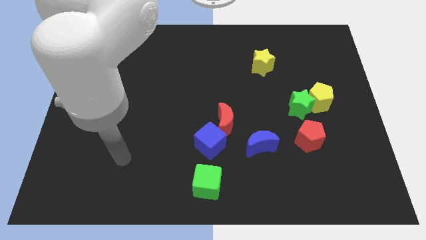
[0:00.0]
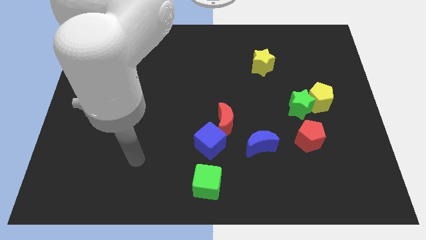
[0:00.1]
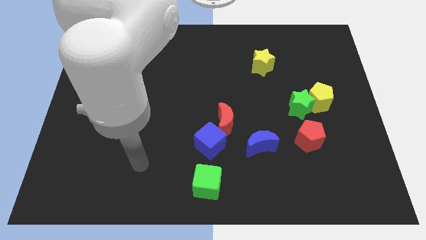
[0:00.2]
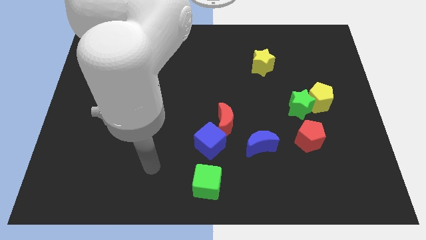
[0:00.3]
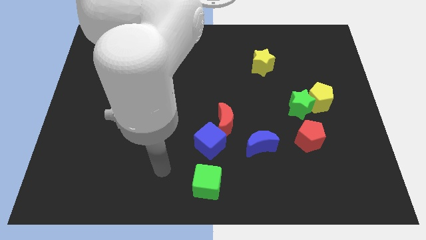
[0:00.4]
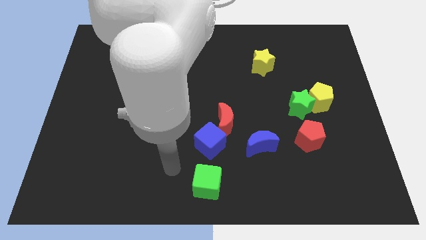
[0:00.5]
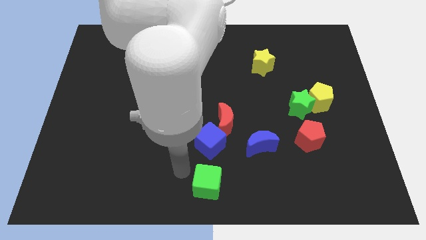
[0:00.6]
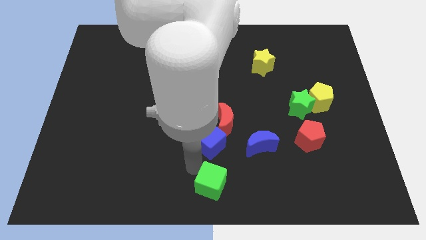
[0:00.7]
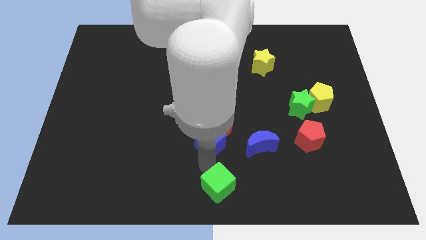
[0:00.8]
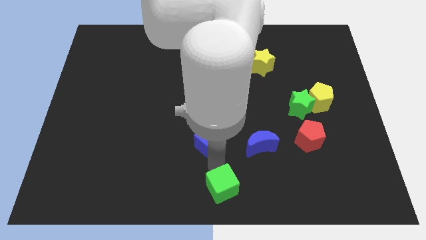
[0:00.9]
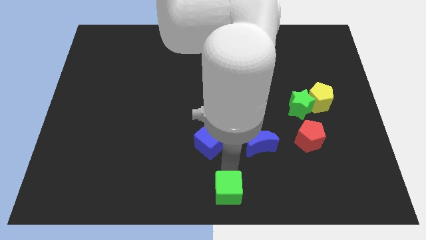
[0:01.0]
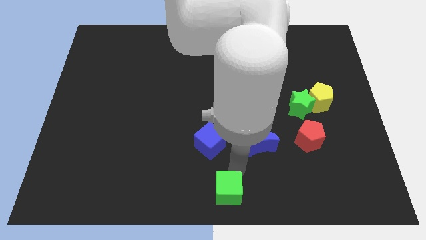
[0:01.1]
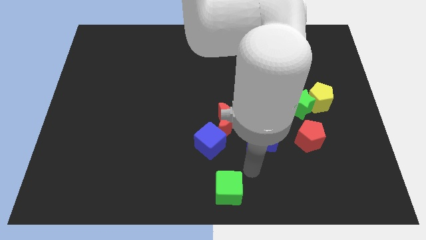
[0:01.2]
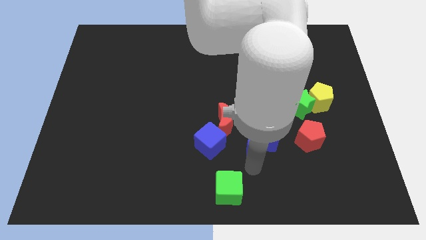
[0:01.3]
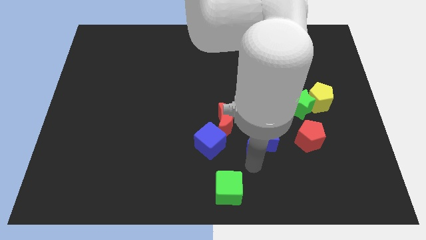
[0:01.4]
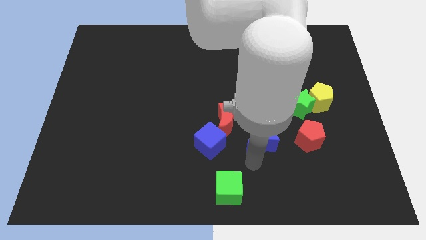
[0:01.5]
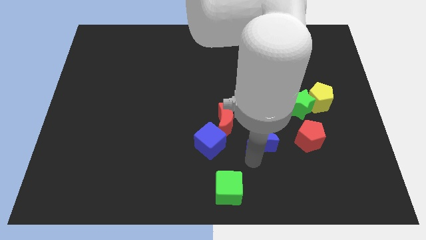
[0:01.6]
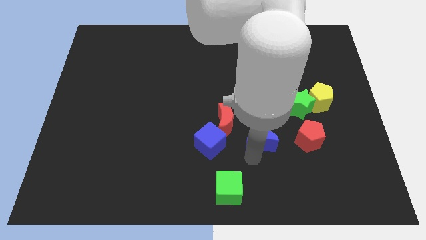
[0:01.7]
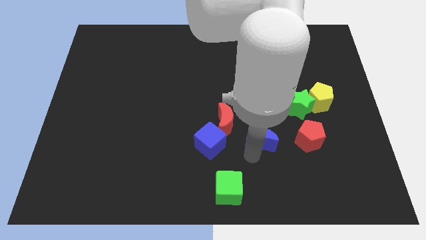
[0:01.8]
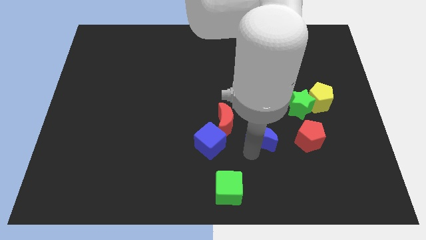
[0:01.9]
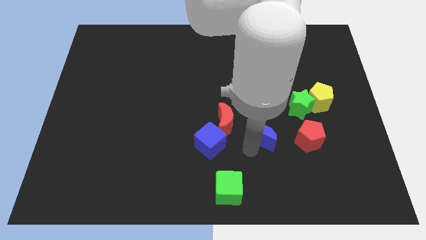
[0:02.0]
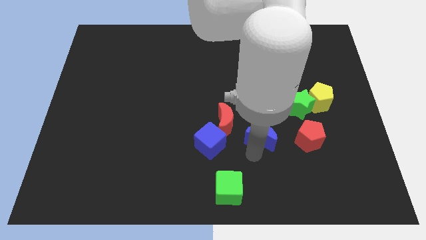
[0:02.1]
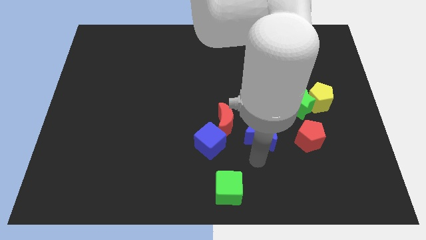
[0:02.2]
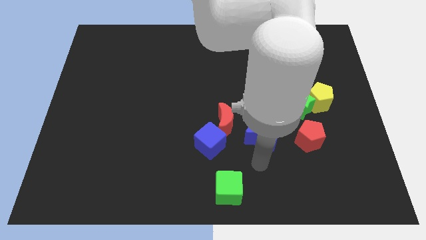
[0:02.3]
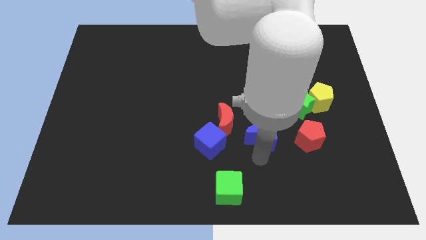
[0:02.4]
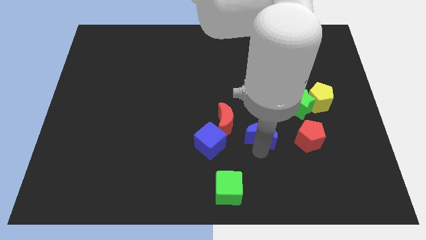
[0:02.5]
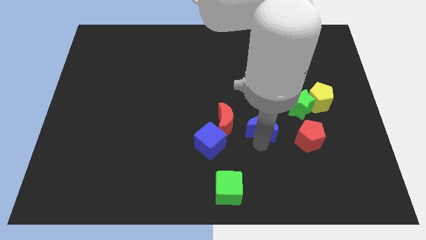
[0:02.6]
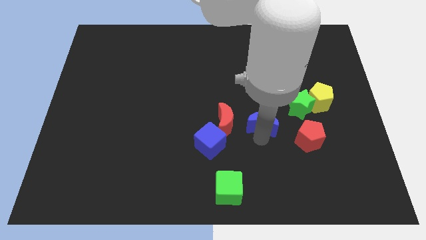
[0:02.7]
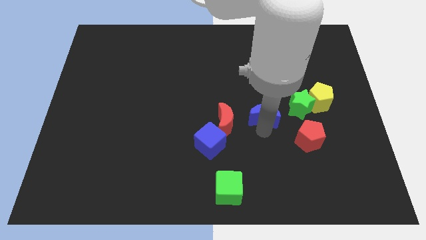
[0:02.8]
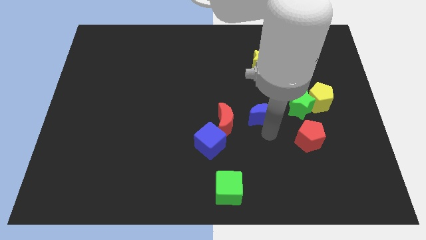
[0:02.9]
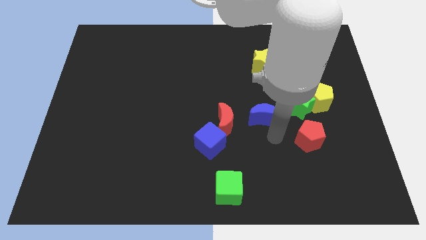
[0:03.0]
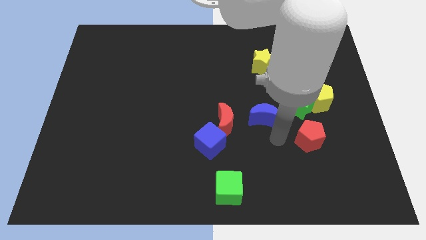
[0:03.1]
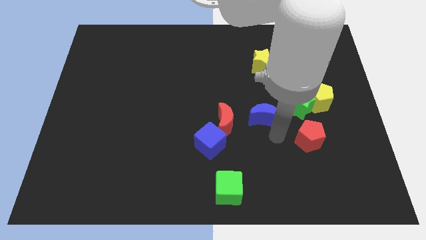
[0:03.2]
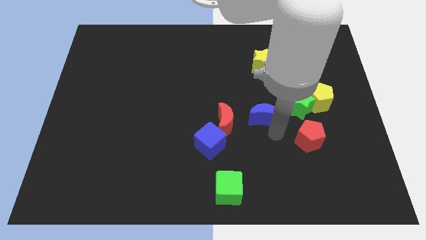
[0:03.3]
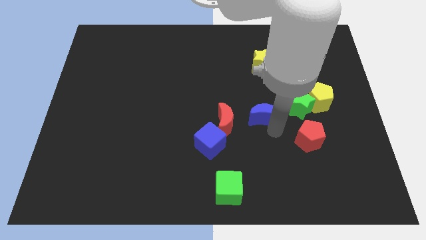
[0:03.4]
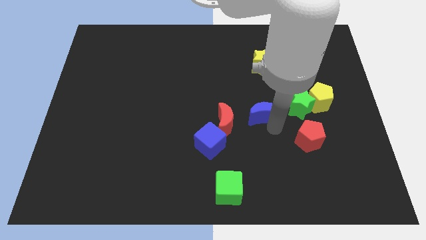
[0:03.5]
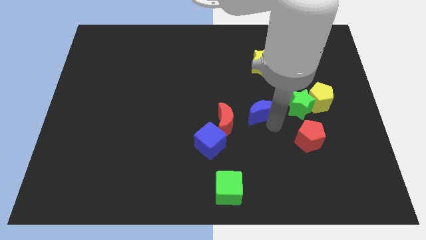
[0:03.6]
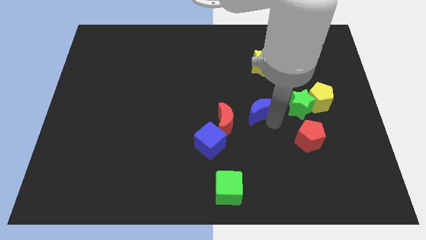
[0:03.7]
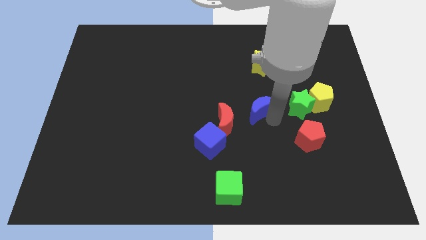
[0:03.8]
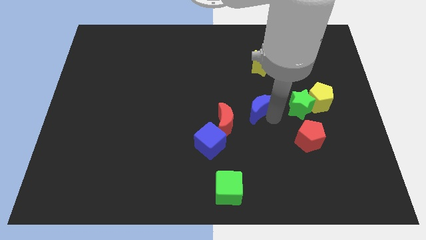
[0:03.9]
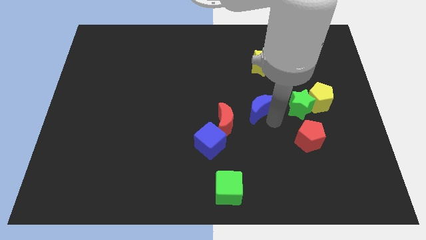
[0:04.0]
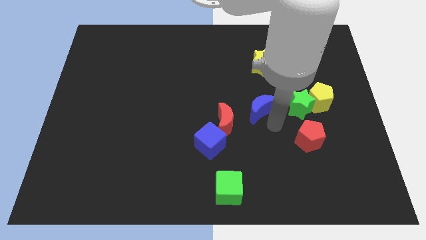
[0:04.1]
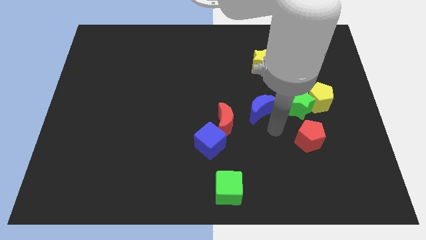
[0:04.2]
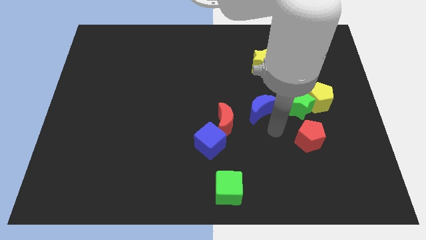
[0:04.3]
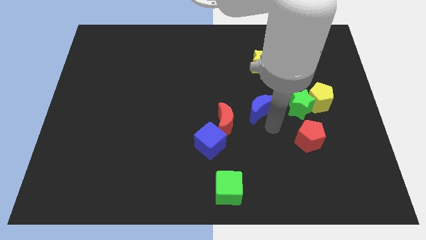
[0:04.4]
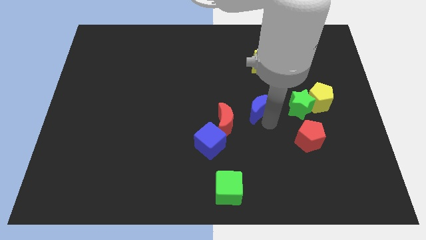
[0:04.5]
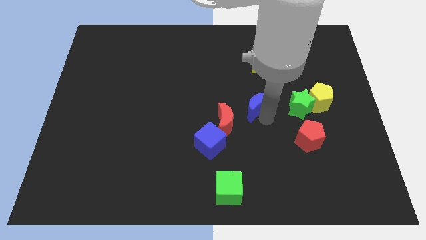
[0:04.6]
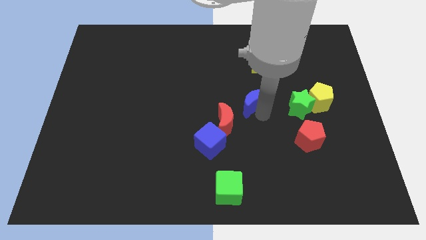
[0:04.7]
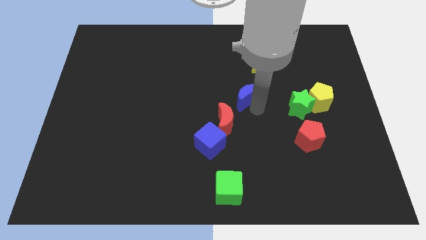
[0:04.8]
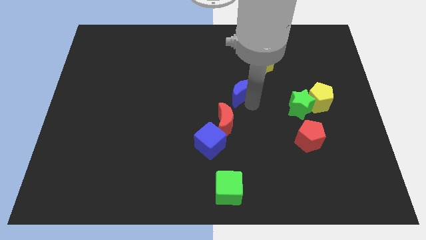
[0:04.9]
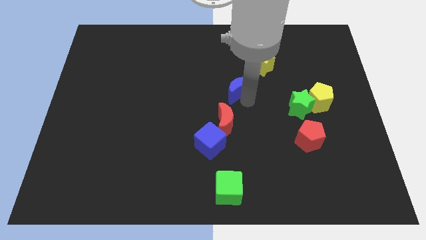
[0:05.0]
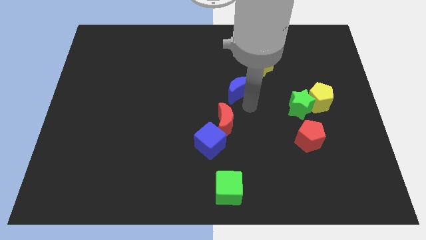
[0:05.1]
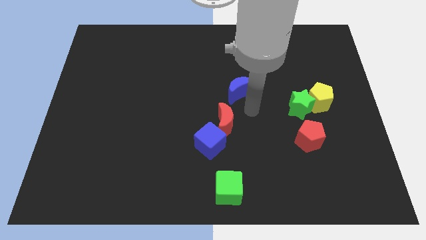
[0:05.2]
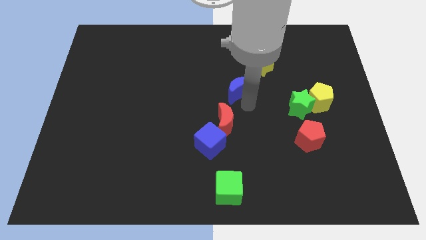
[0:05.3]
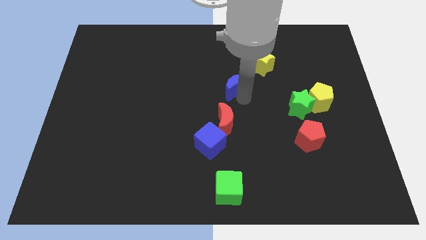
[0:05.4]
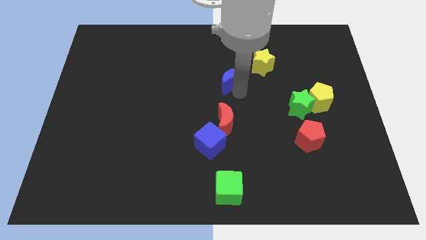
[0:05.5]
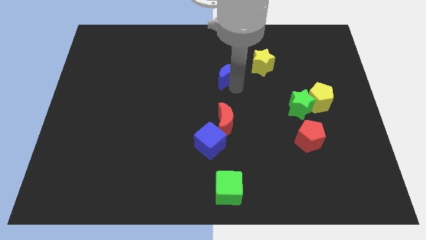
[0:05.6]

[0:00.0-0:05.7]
slide the blue moon to the left of the yellow star

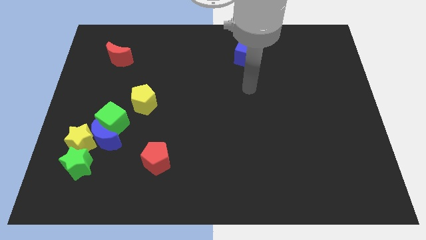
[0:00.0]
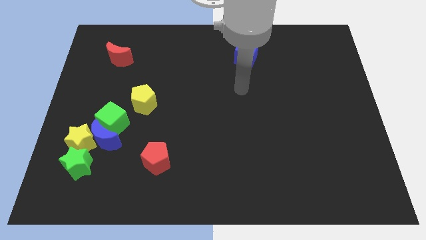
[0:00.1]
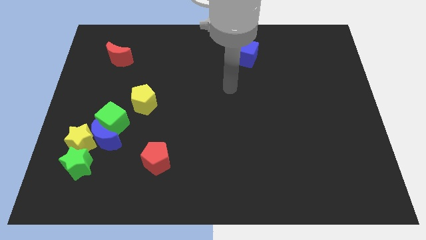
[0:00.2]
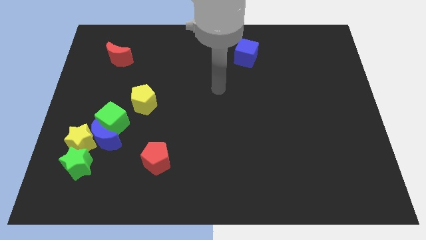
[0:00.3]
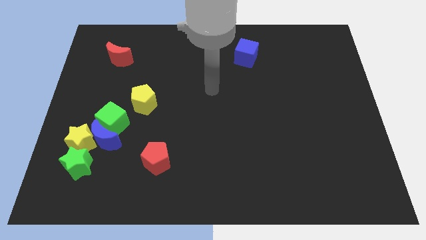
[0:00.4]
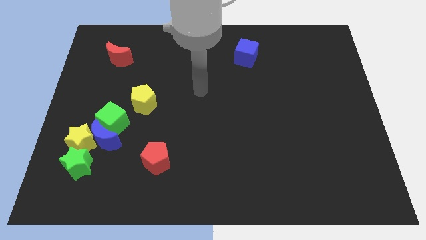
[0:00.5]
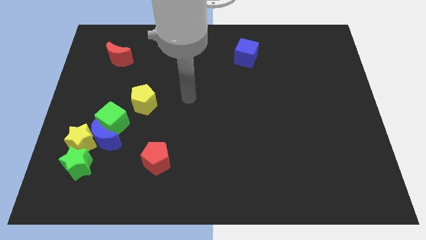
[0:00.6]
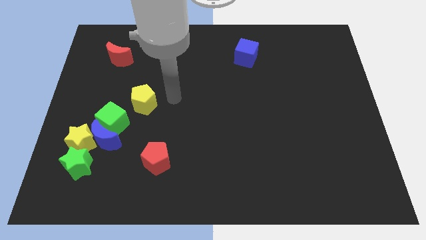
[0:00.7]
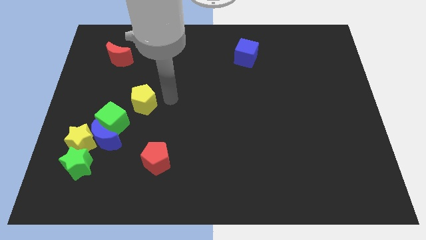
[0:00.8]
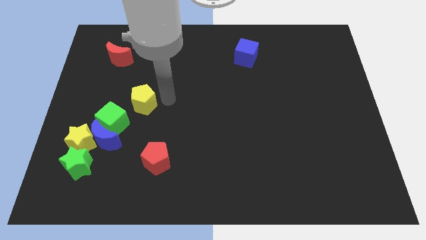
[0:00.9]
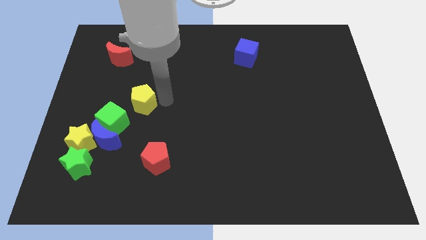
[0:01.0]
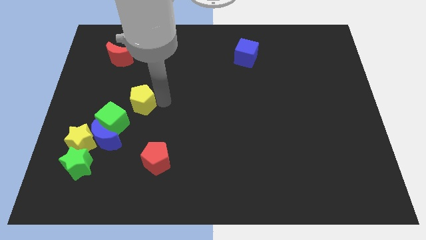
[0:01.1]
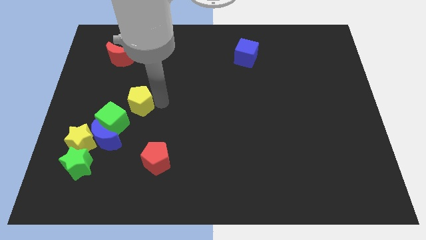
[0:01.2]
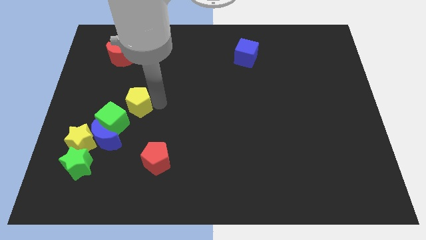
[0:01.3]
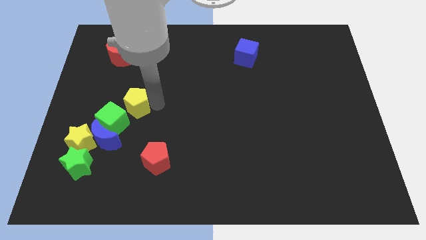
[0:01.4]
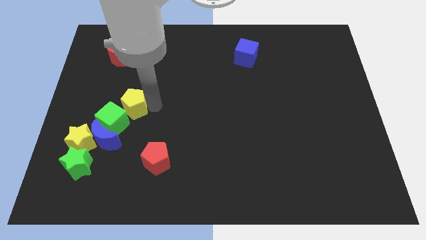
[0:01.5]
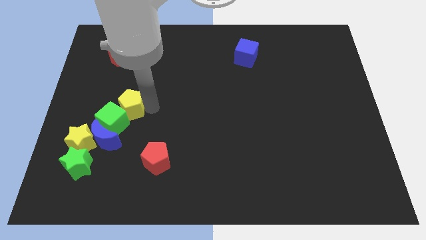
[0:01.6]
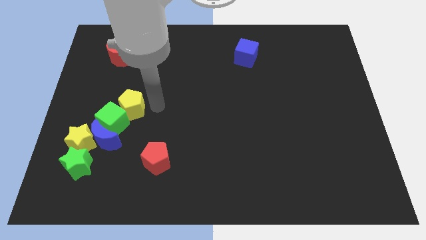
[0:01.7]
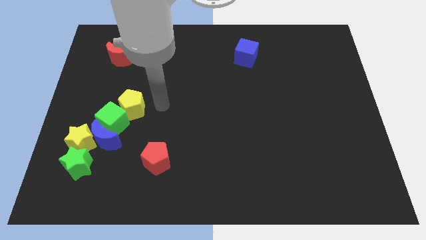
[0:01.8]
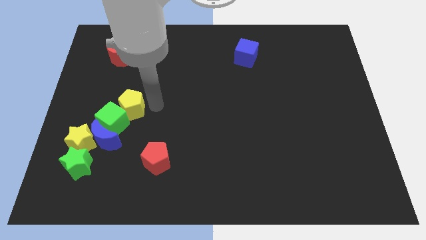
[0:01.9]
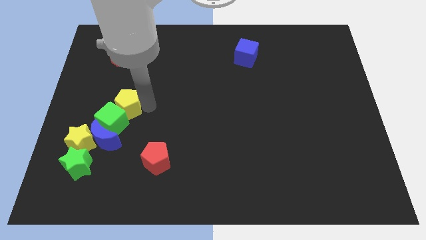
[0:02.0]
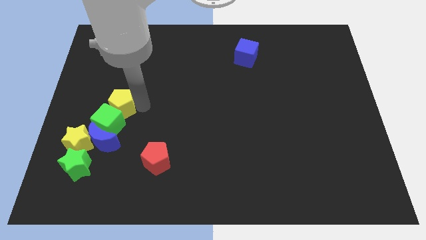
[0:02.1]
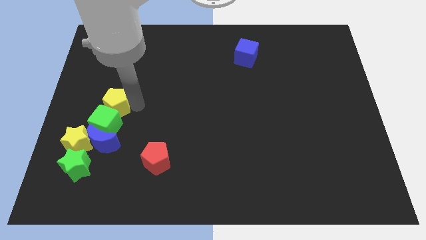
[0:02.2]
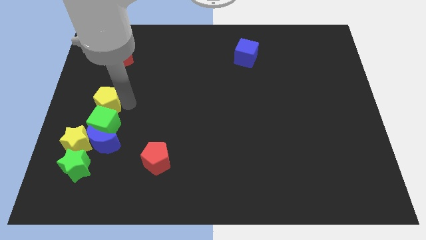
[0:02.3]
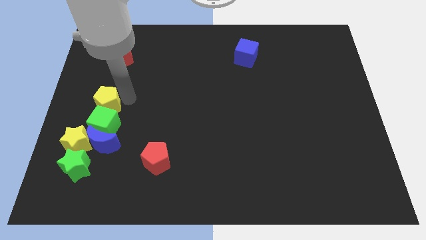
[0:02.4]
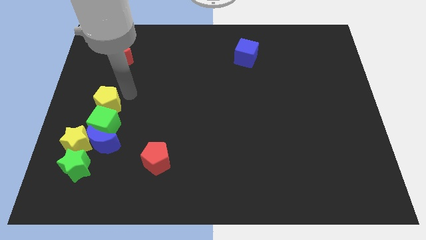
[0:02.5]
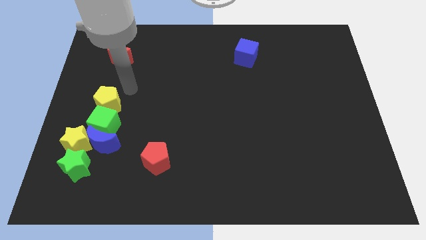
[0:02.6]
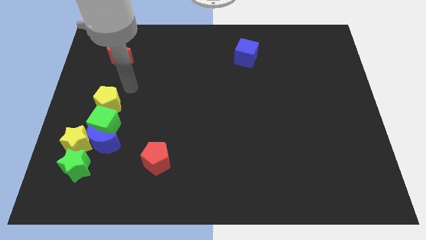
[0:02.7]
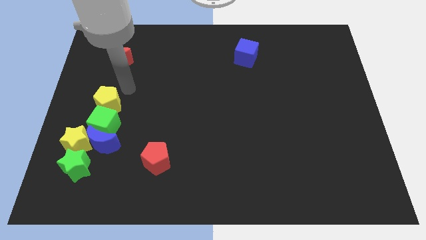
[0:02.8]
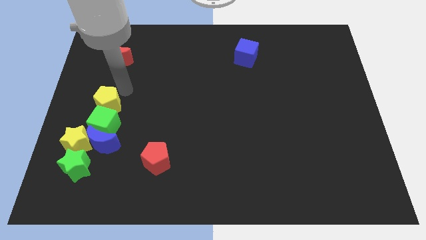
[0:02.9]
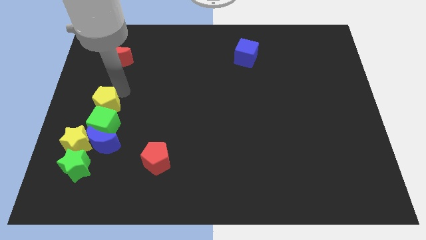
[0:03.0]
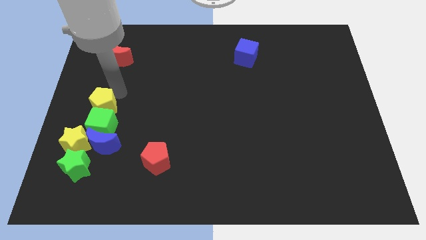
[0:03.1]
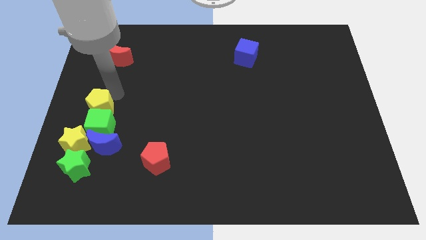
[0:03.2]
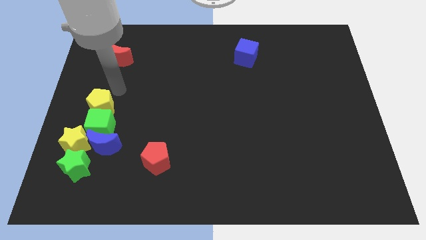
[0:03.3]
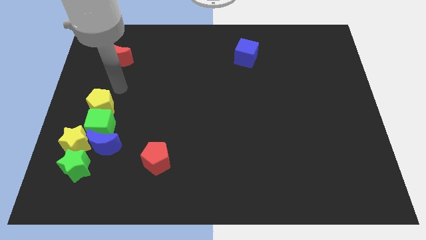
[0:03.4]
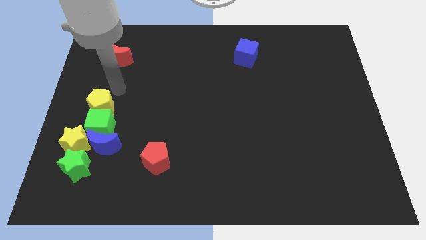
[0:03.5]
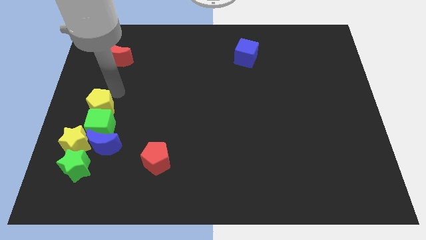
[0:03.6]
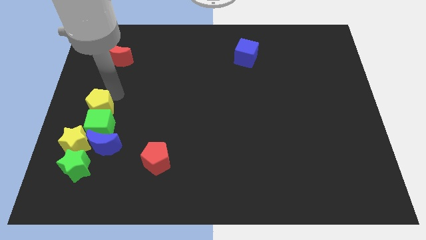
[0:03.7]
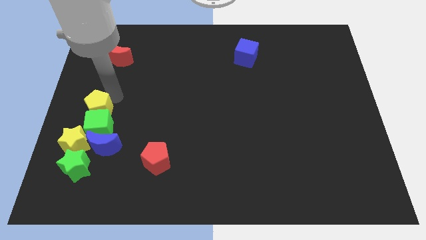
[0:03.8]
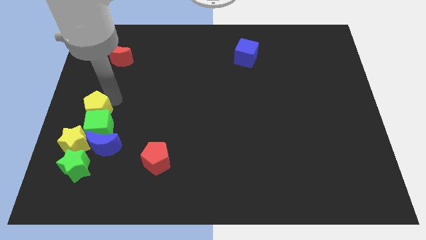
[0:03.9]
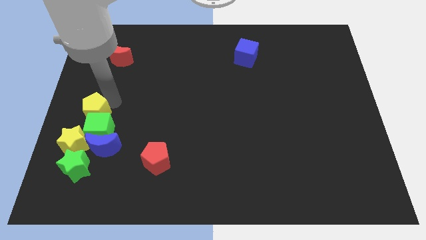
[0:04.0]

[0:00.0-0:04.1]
slide the yellow pentagon to the top left side of the blue moon
